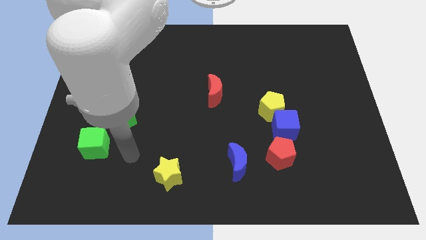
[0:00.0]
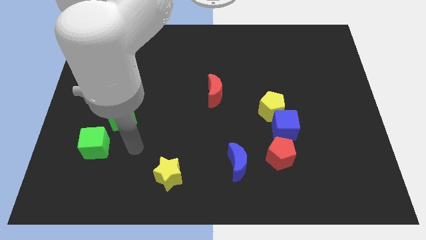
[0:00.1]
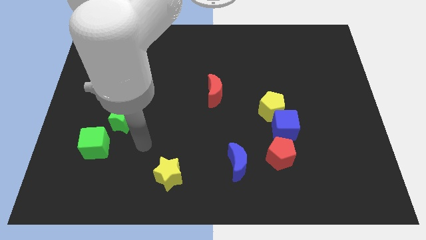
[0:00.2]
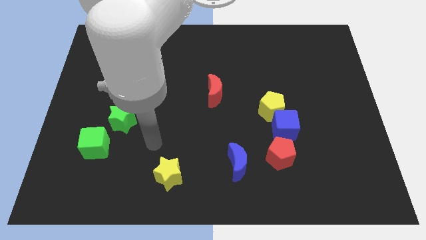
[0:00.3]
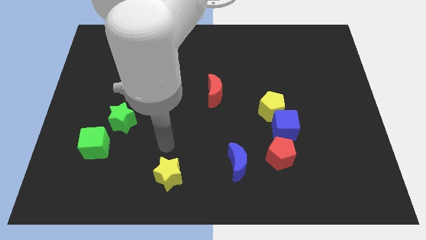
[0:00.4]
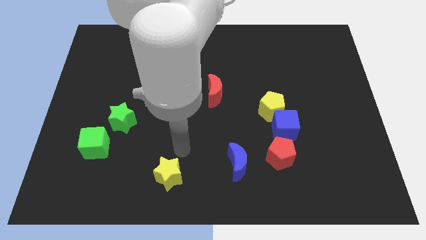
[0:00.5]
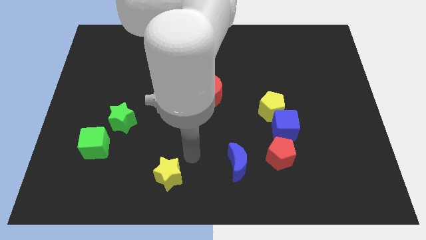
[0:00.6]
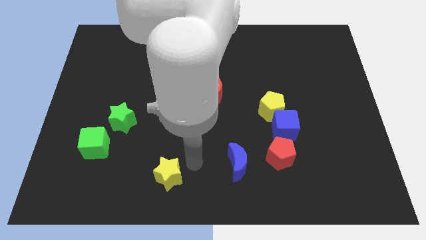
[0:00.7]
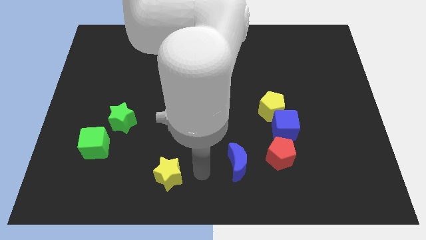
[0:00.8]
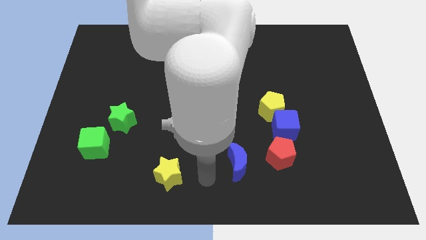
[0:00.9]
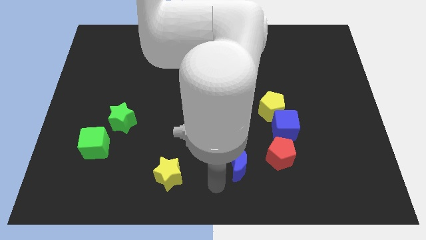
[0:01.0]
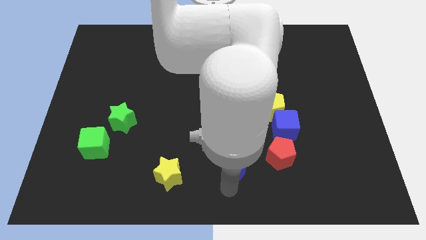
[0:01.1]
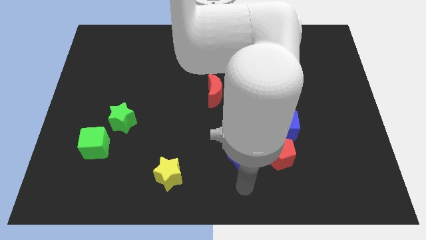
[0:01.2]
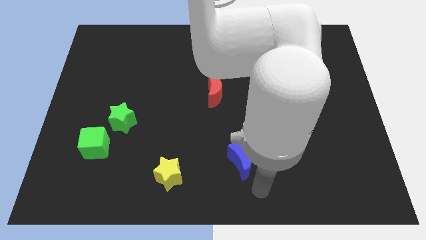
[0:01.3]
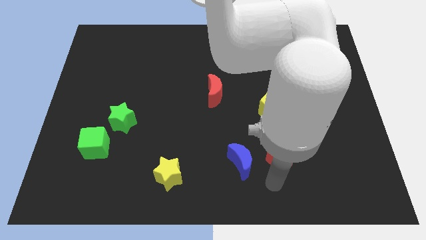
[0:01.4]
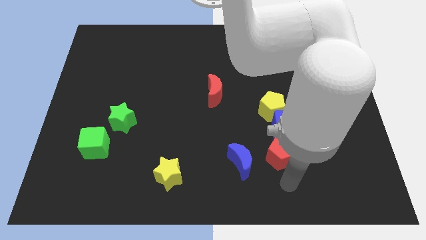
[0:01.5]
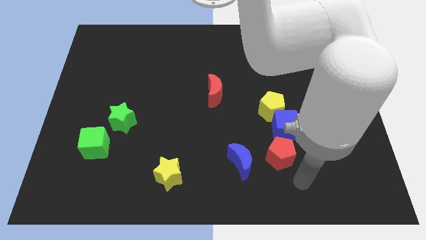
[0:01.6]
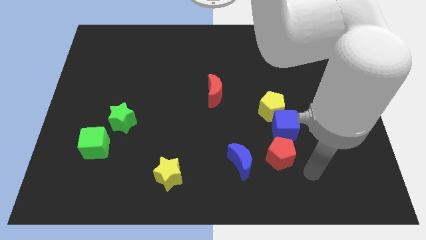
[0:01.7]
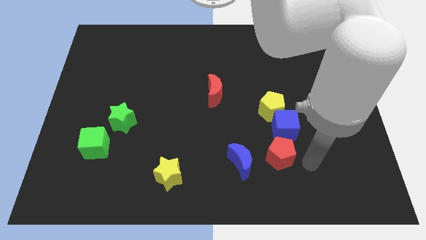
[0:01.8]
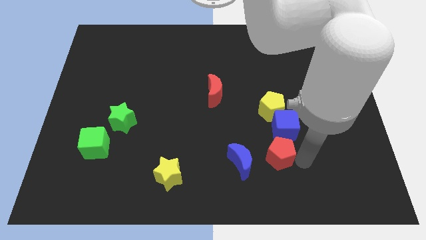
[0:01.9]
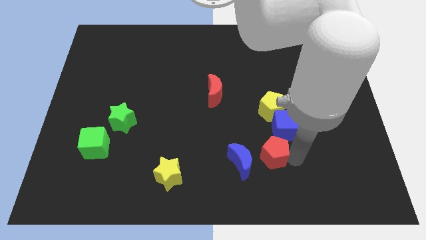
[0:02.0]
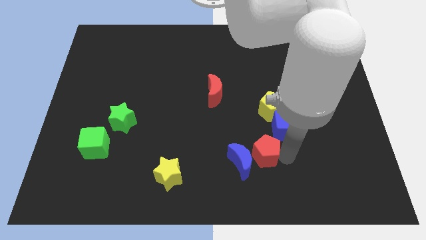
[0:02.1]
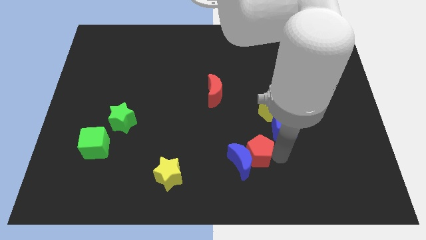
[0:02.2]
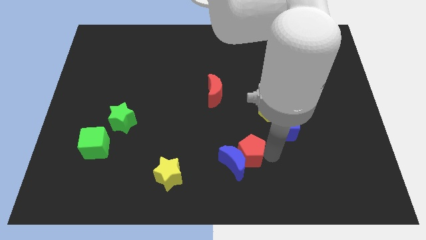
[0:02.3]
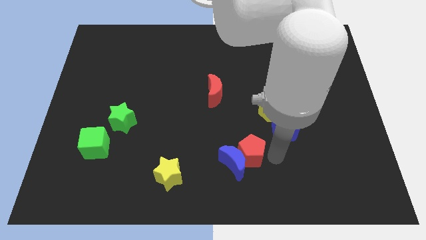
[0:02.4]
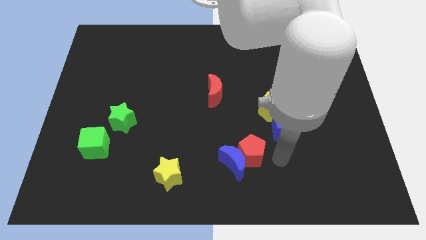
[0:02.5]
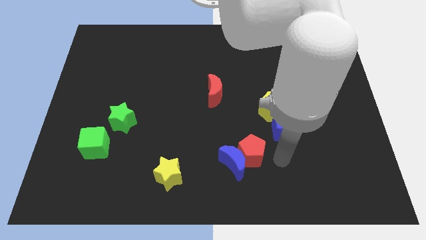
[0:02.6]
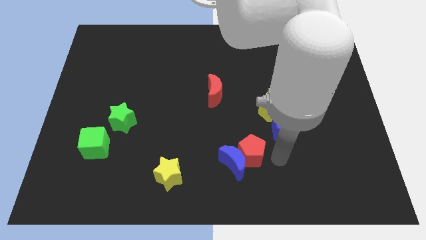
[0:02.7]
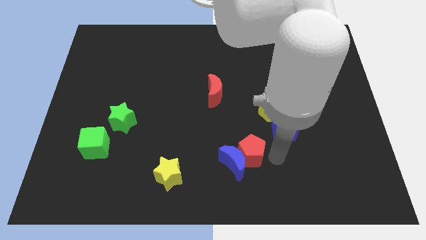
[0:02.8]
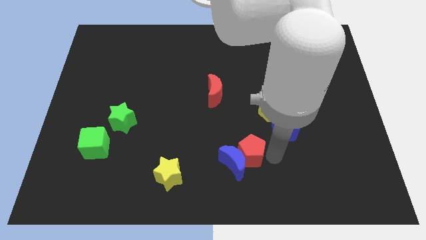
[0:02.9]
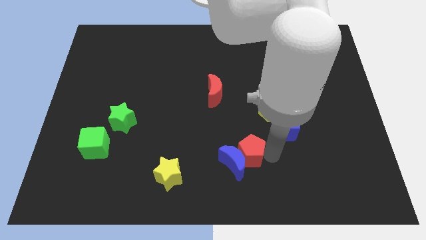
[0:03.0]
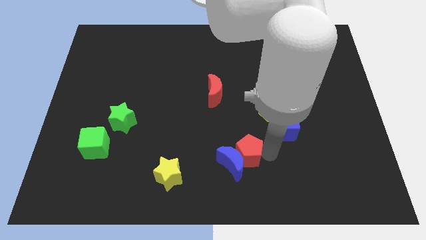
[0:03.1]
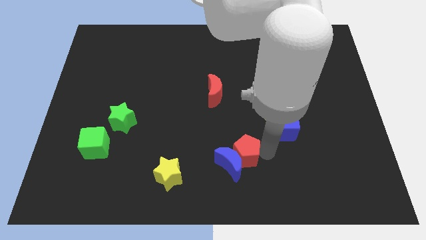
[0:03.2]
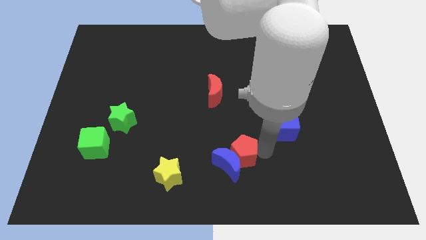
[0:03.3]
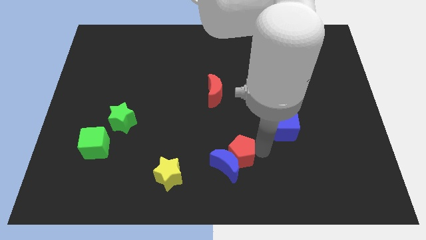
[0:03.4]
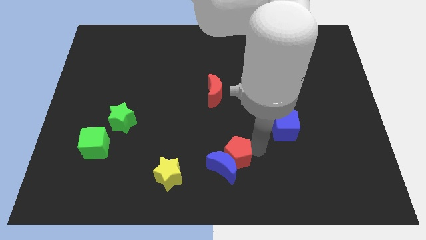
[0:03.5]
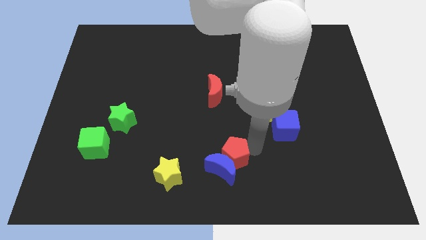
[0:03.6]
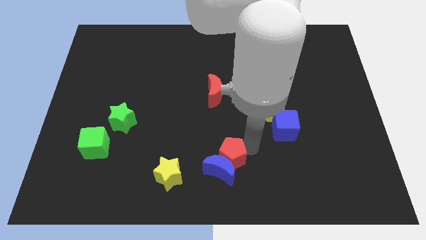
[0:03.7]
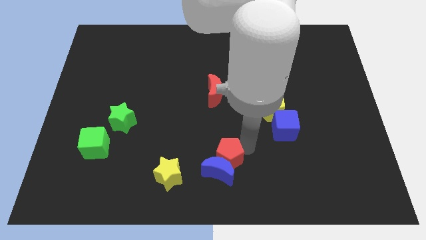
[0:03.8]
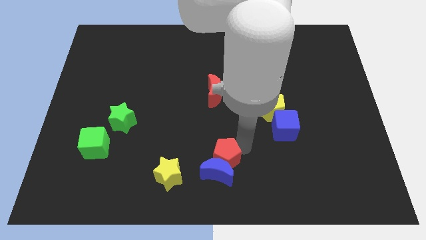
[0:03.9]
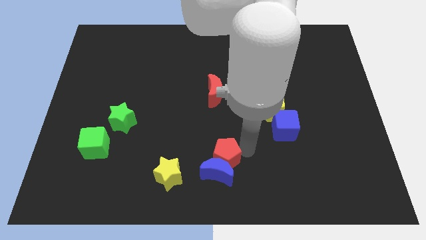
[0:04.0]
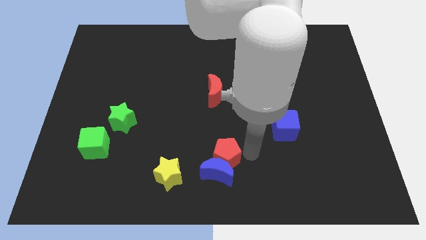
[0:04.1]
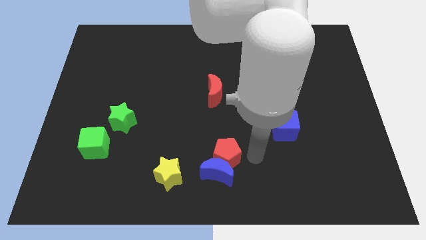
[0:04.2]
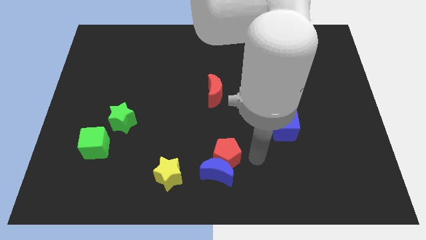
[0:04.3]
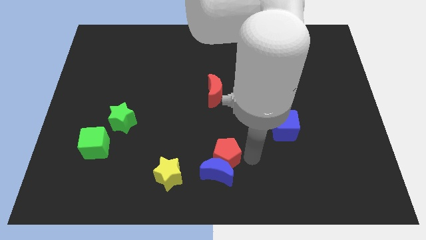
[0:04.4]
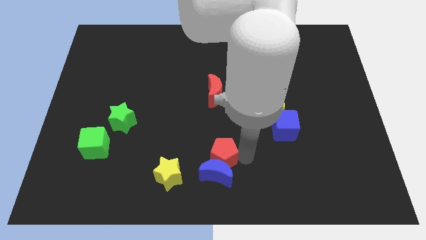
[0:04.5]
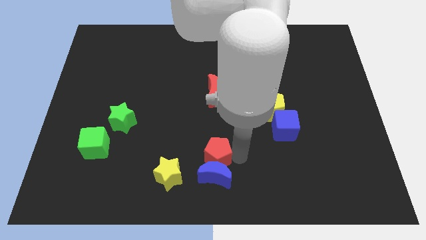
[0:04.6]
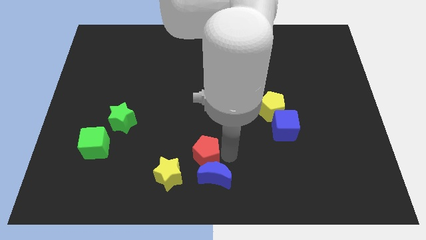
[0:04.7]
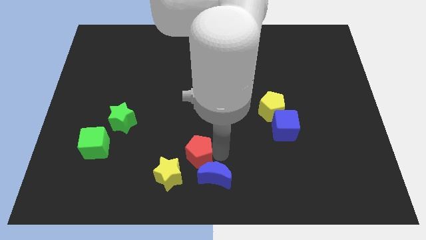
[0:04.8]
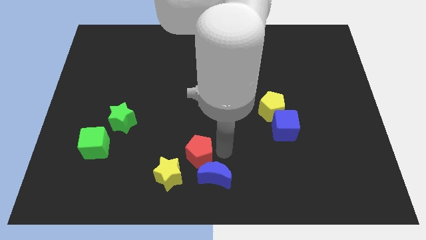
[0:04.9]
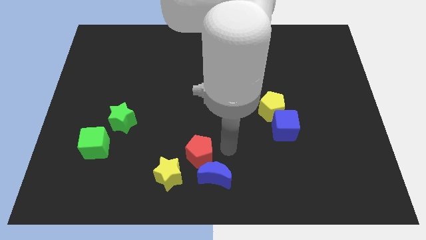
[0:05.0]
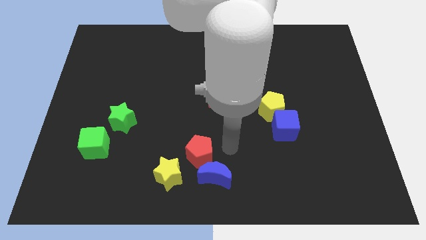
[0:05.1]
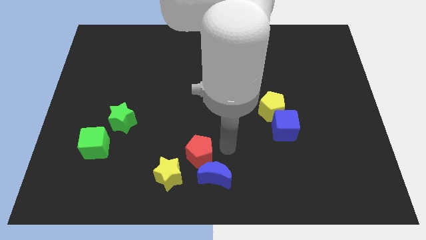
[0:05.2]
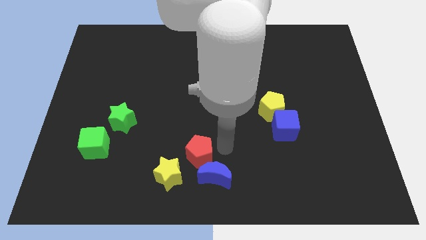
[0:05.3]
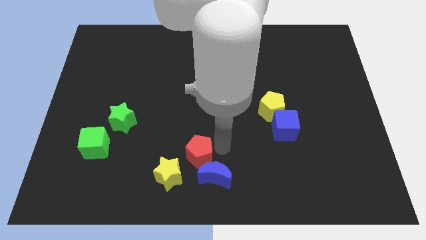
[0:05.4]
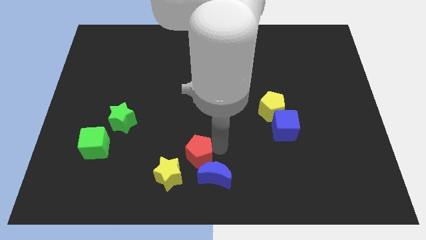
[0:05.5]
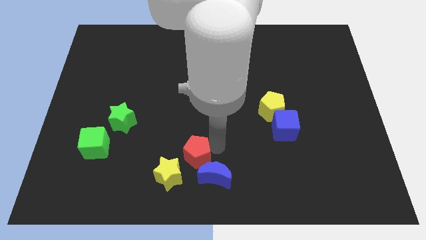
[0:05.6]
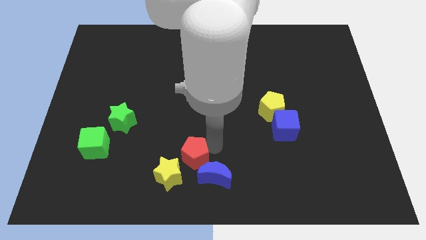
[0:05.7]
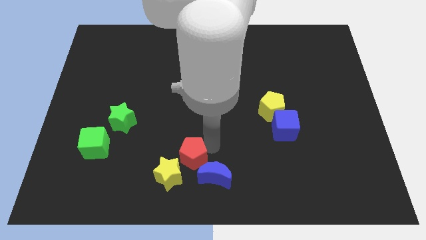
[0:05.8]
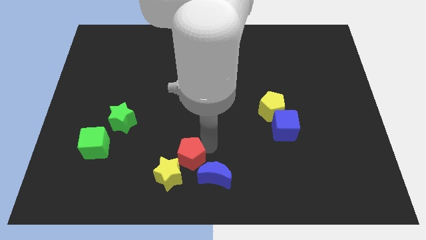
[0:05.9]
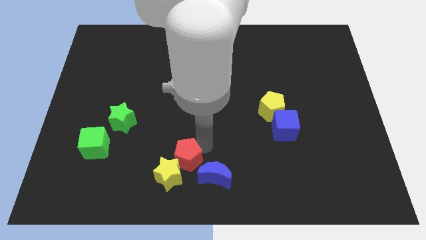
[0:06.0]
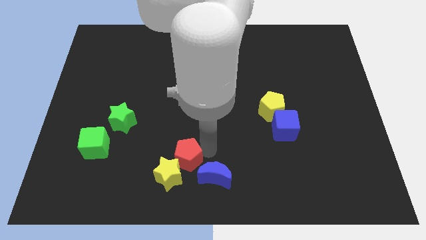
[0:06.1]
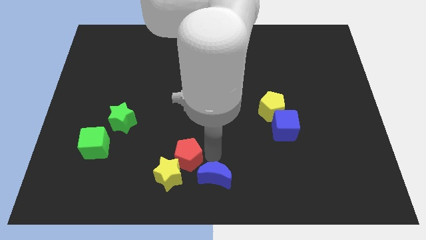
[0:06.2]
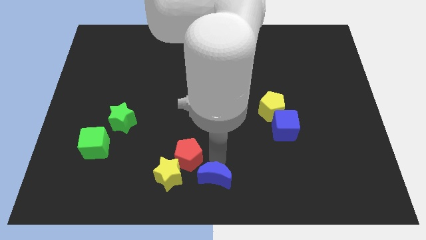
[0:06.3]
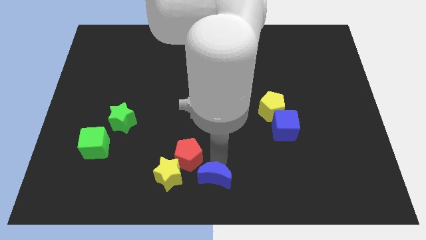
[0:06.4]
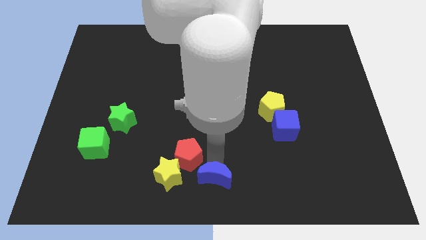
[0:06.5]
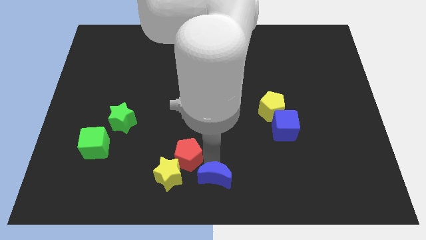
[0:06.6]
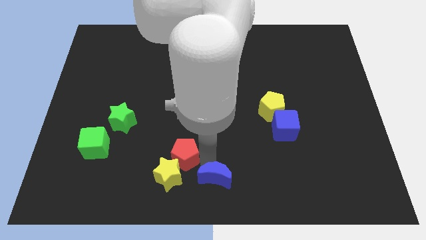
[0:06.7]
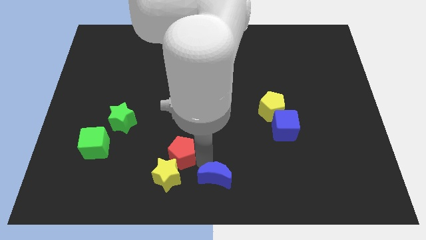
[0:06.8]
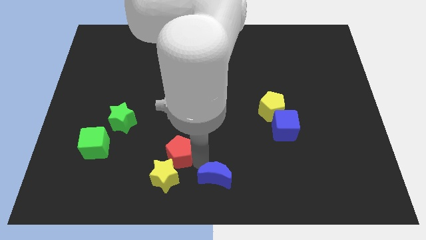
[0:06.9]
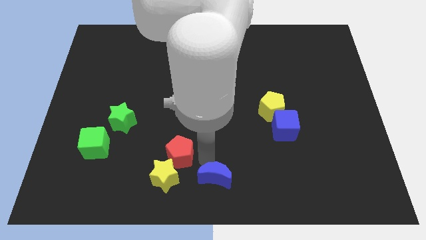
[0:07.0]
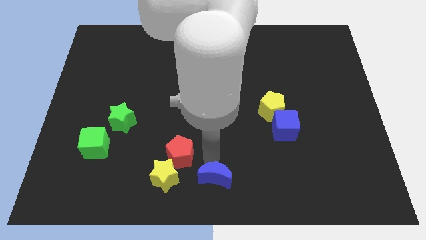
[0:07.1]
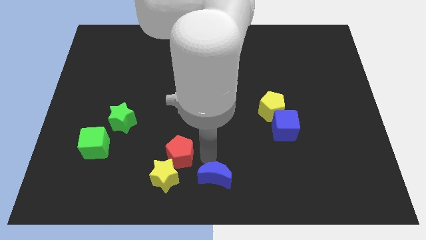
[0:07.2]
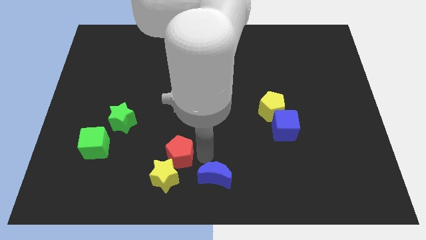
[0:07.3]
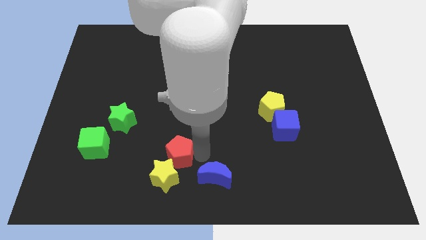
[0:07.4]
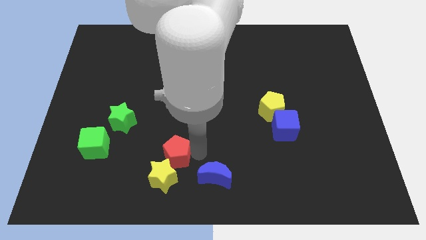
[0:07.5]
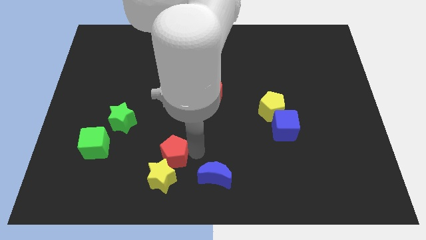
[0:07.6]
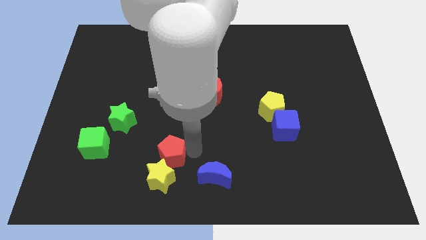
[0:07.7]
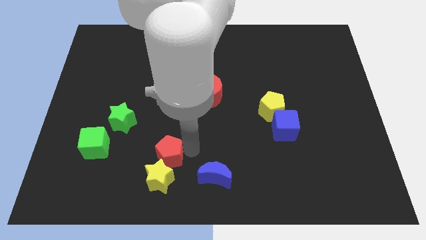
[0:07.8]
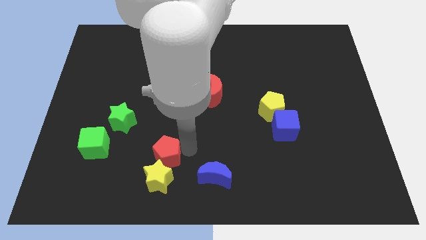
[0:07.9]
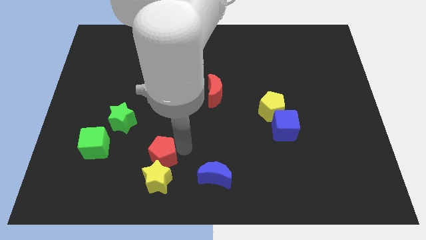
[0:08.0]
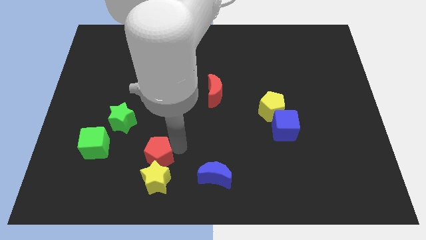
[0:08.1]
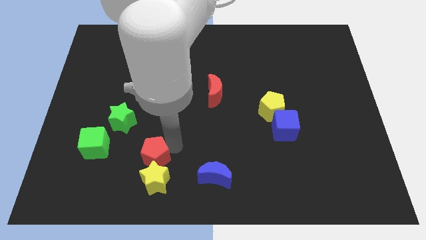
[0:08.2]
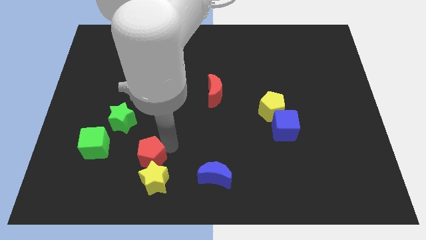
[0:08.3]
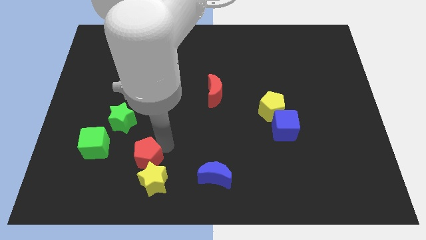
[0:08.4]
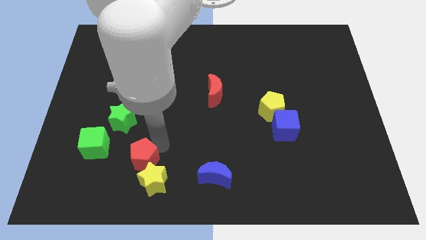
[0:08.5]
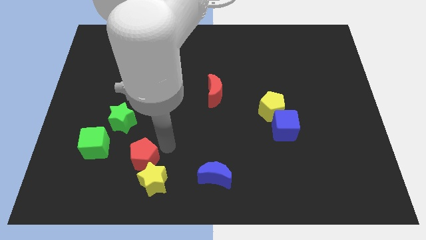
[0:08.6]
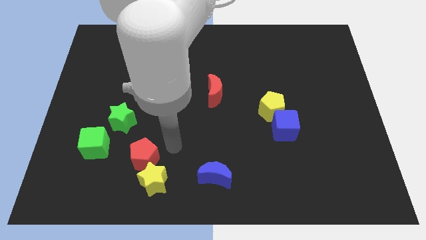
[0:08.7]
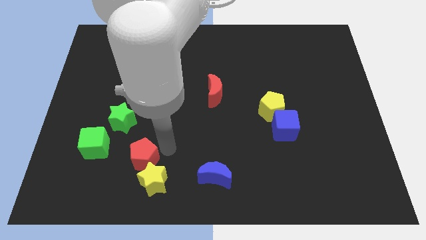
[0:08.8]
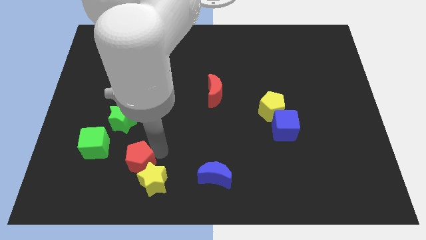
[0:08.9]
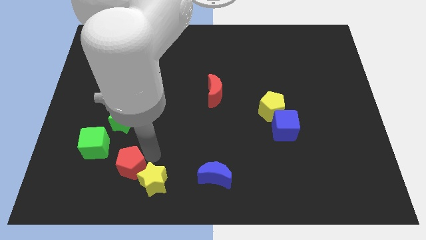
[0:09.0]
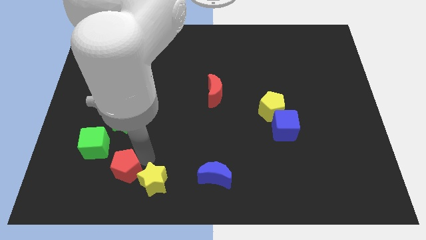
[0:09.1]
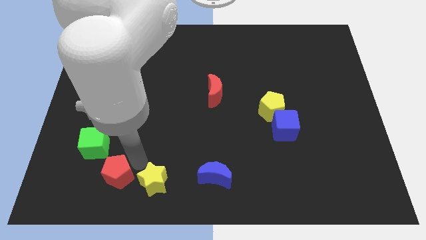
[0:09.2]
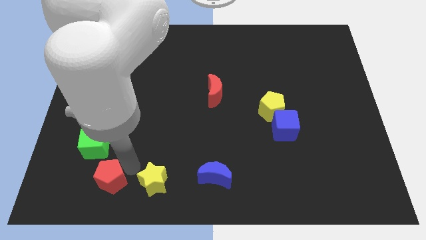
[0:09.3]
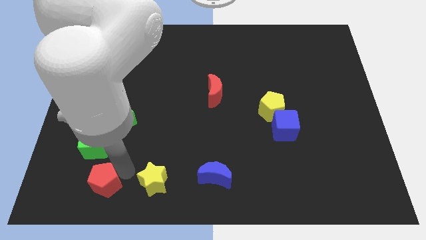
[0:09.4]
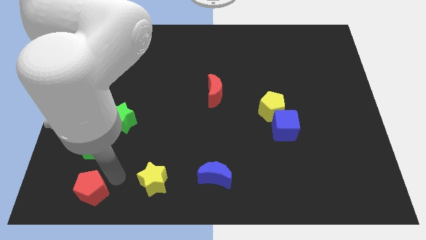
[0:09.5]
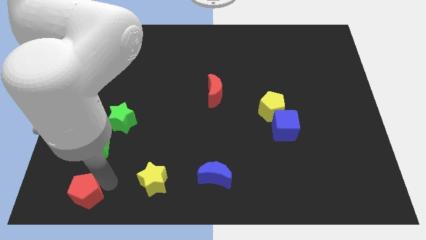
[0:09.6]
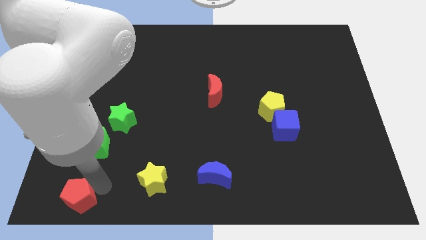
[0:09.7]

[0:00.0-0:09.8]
push the red pentagon to the lower left corner
